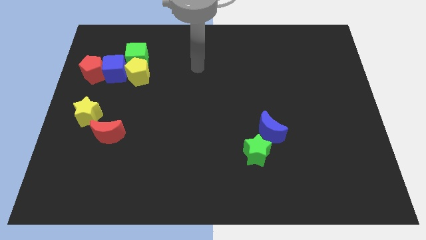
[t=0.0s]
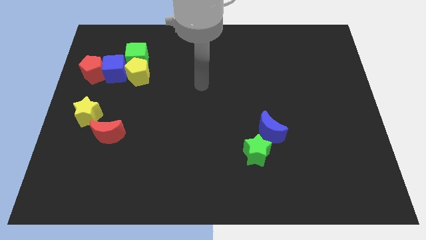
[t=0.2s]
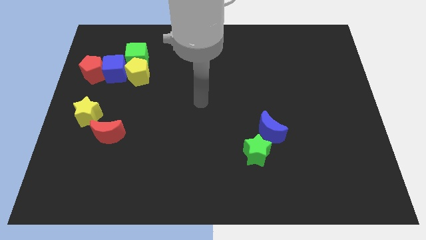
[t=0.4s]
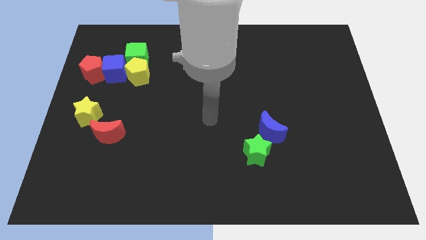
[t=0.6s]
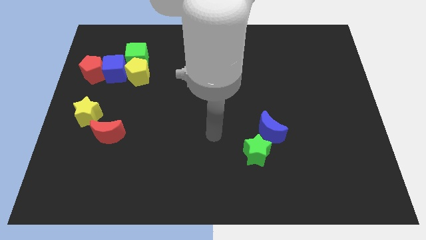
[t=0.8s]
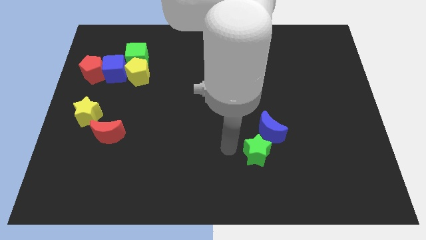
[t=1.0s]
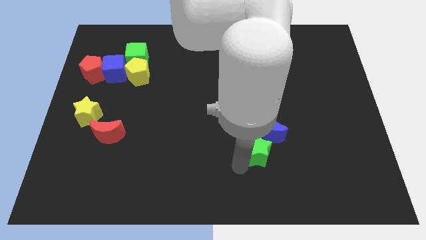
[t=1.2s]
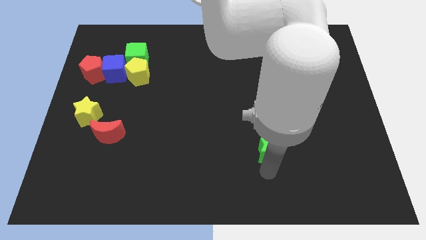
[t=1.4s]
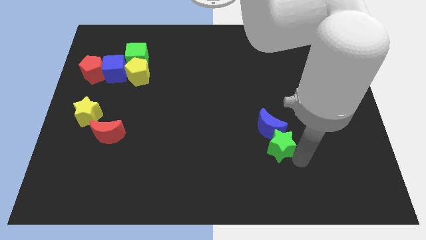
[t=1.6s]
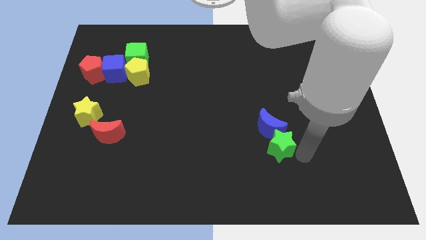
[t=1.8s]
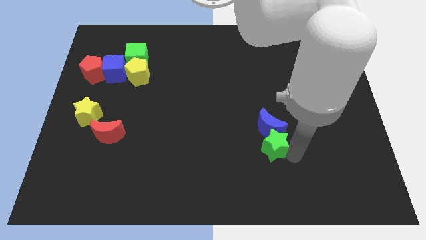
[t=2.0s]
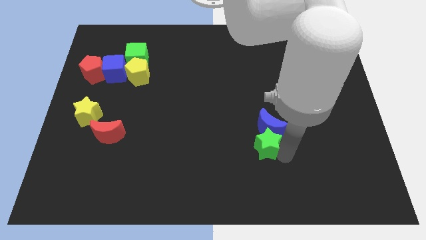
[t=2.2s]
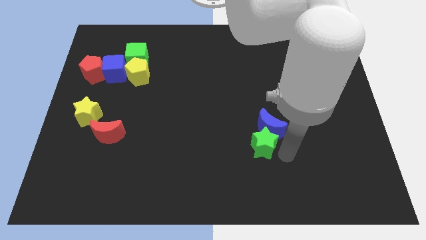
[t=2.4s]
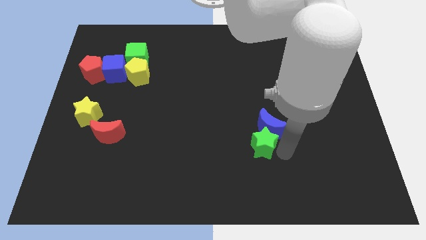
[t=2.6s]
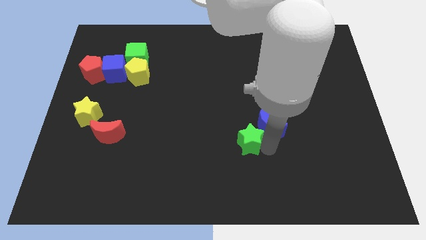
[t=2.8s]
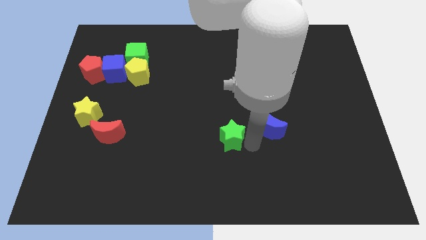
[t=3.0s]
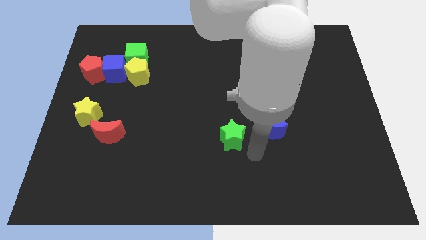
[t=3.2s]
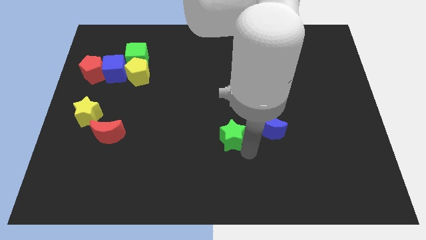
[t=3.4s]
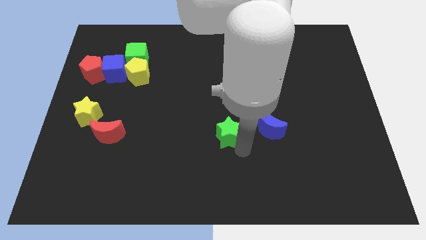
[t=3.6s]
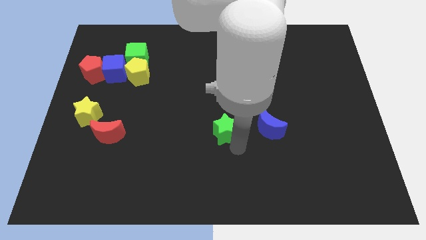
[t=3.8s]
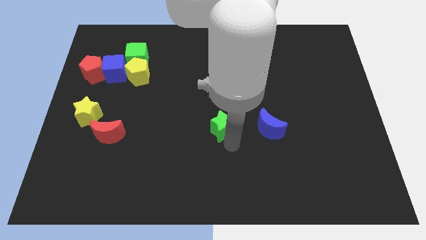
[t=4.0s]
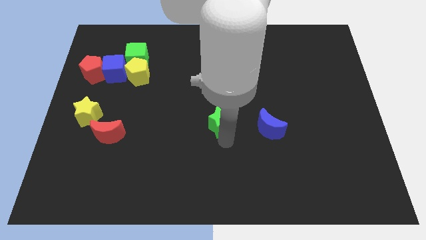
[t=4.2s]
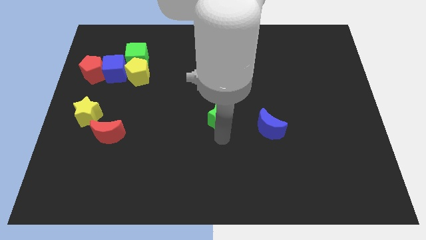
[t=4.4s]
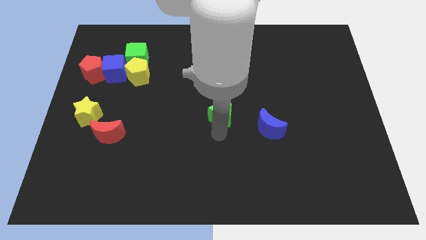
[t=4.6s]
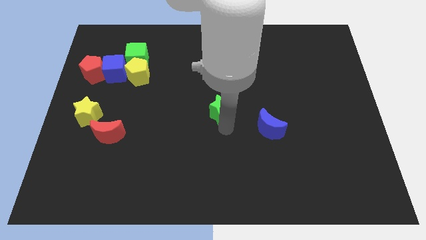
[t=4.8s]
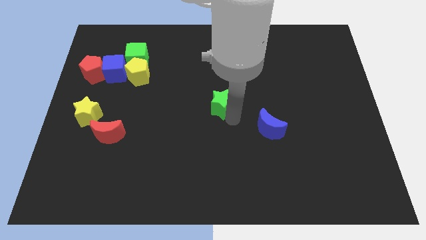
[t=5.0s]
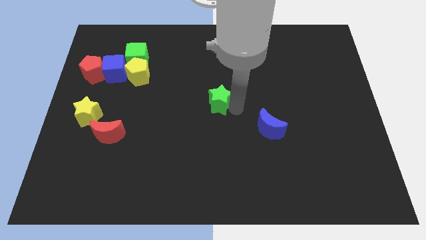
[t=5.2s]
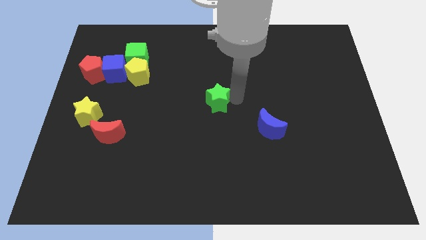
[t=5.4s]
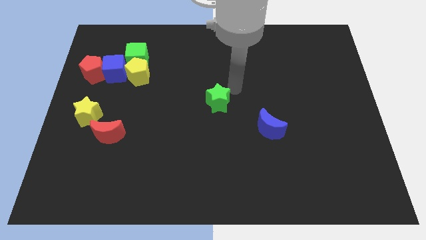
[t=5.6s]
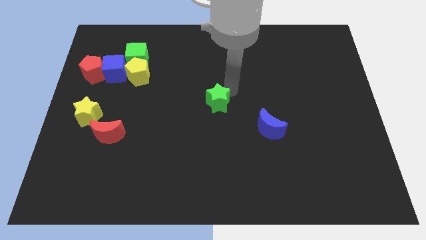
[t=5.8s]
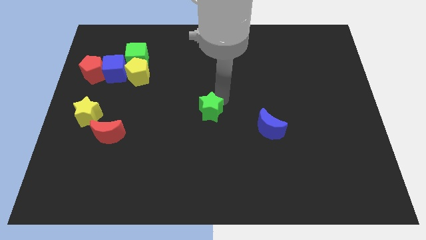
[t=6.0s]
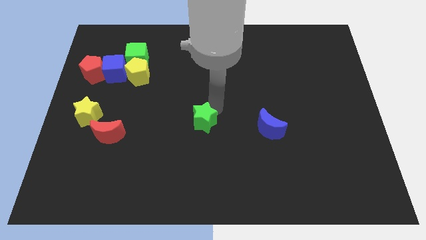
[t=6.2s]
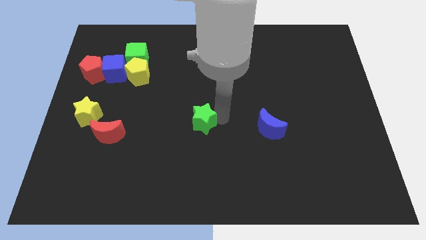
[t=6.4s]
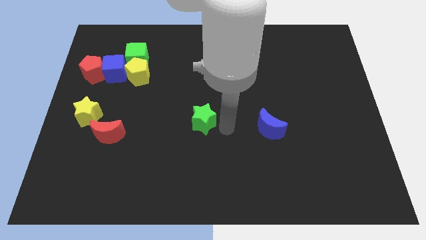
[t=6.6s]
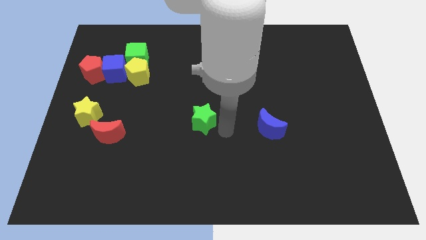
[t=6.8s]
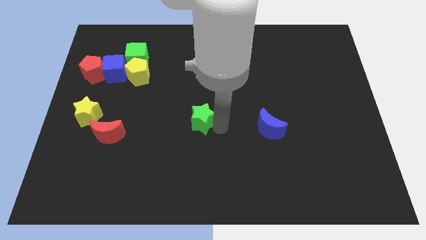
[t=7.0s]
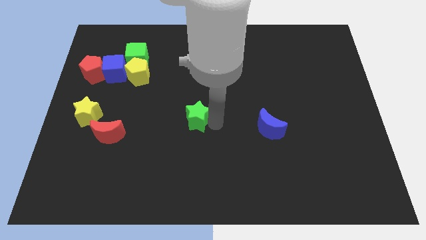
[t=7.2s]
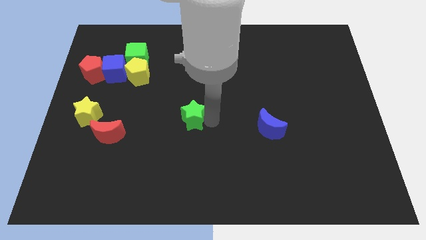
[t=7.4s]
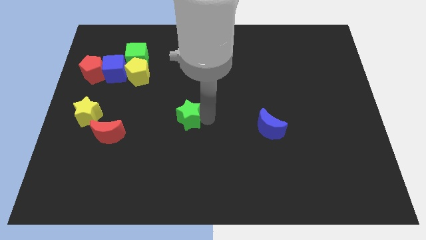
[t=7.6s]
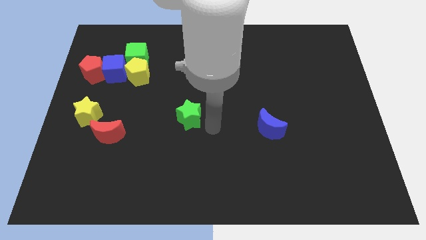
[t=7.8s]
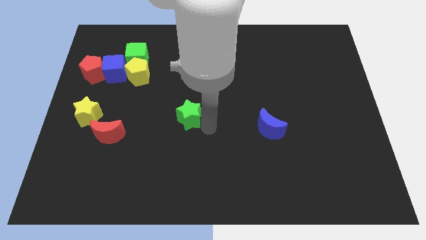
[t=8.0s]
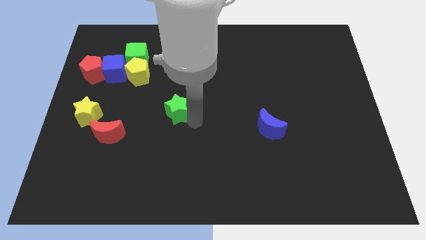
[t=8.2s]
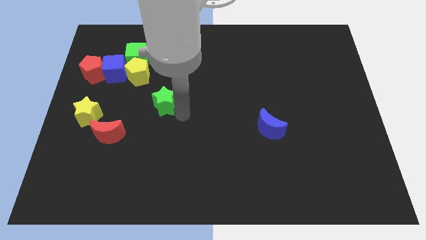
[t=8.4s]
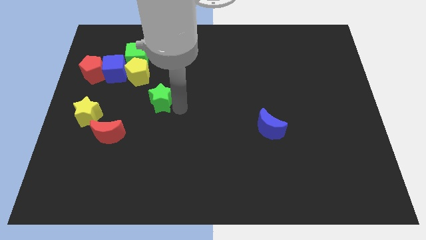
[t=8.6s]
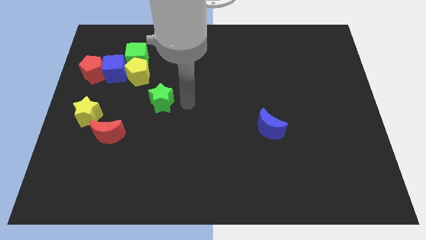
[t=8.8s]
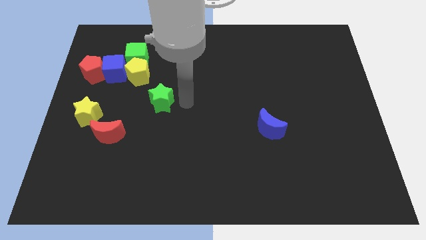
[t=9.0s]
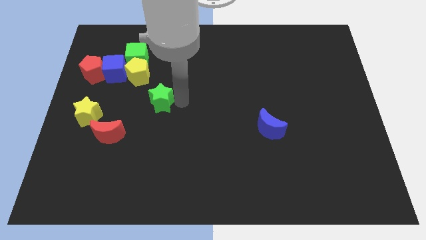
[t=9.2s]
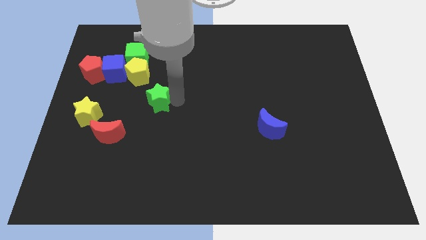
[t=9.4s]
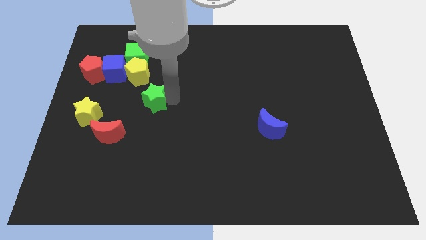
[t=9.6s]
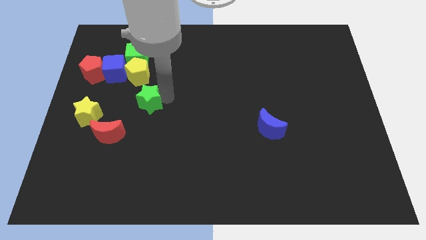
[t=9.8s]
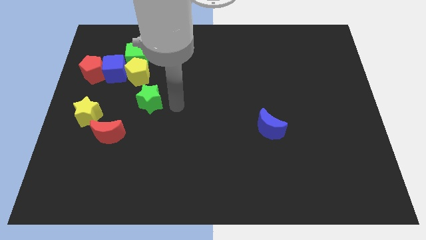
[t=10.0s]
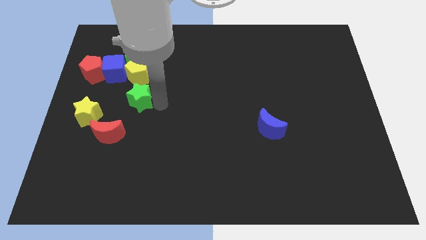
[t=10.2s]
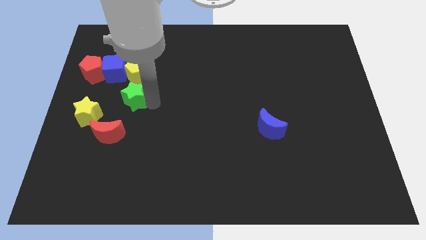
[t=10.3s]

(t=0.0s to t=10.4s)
slide the green star to the top right of the yellow star

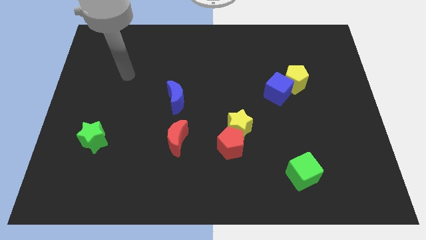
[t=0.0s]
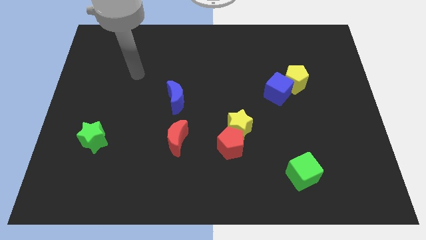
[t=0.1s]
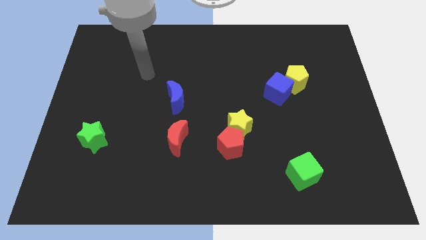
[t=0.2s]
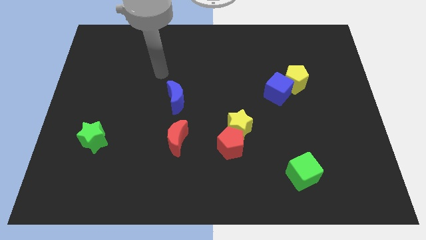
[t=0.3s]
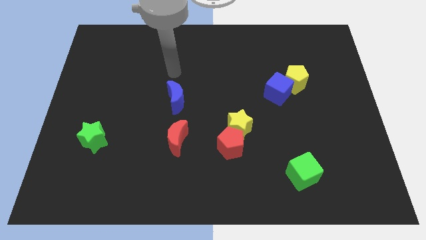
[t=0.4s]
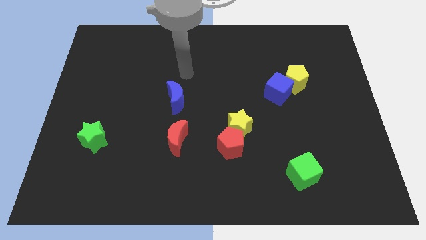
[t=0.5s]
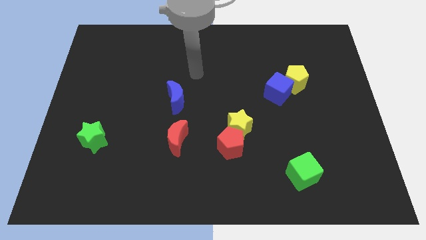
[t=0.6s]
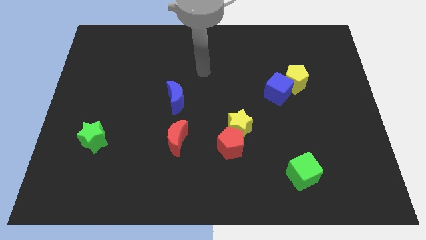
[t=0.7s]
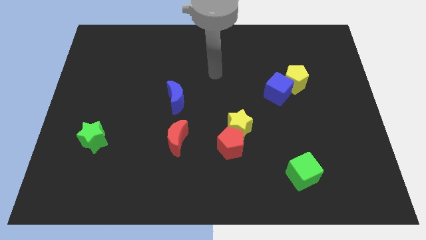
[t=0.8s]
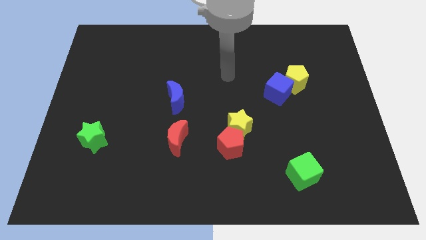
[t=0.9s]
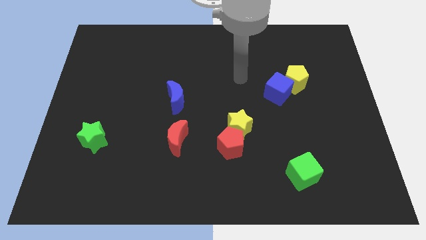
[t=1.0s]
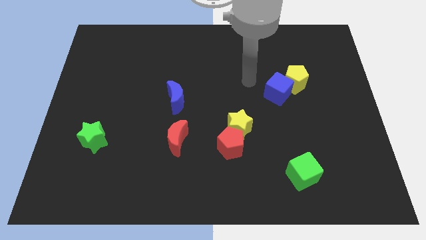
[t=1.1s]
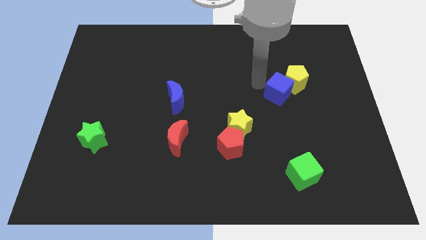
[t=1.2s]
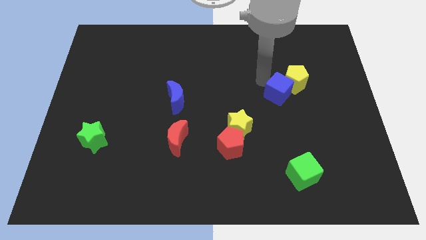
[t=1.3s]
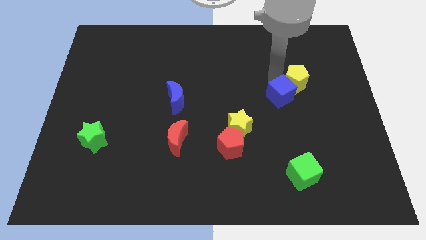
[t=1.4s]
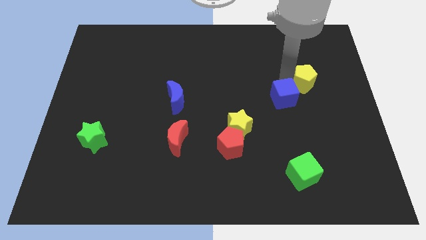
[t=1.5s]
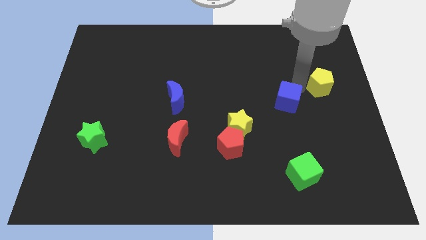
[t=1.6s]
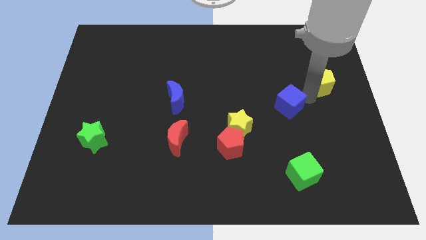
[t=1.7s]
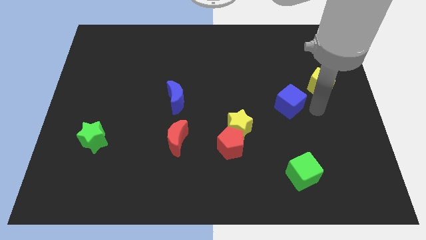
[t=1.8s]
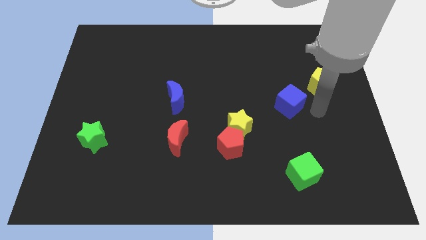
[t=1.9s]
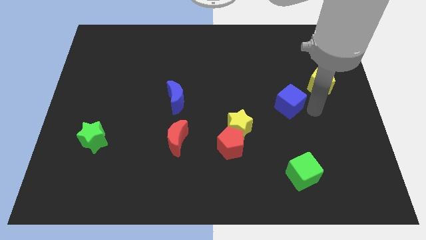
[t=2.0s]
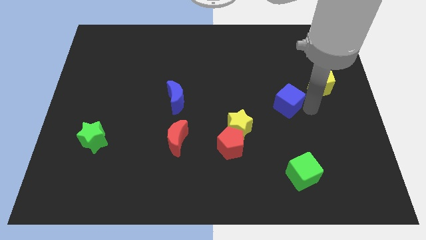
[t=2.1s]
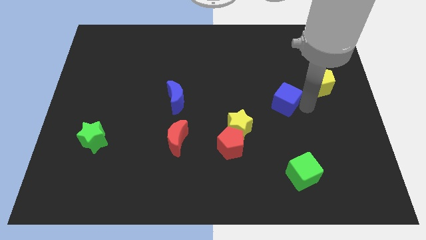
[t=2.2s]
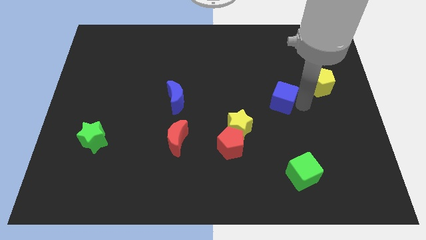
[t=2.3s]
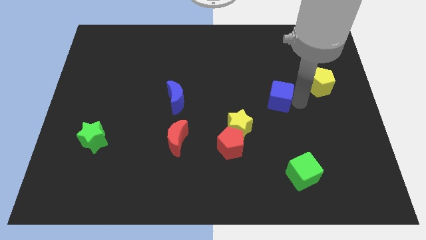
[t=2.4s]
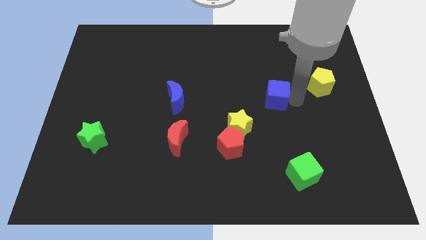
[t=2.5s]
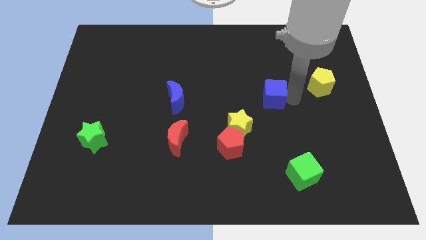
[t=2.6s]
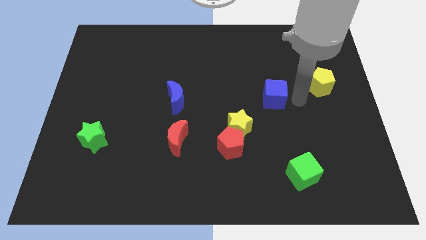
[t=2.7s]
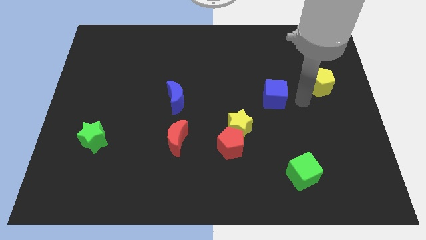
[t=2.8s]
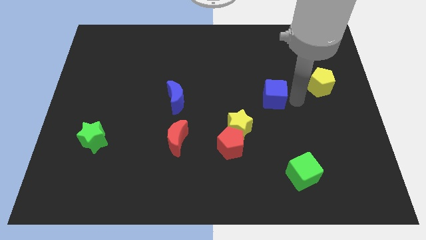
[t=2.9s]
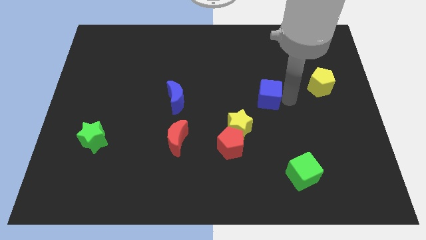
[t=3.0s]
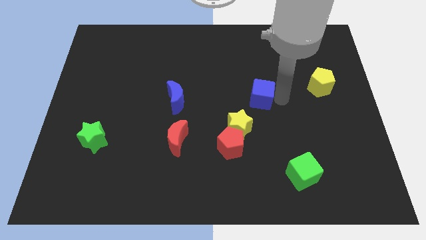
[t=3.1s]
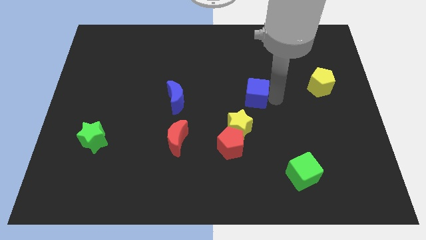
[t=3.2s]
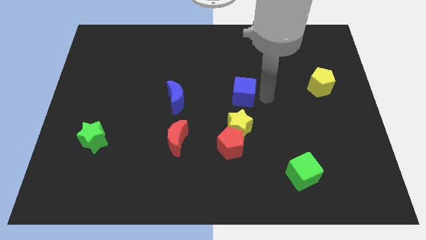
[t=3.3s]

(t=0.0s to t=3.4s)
push the blue cube to the right side of the blue moon
